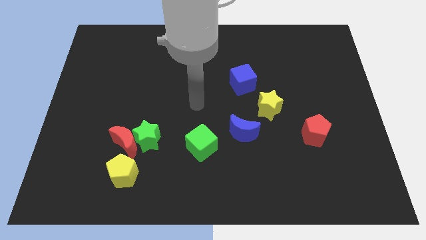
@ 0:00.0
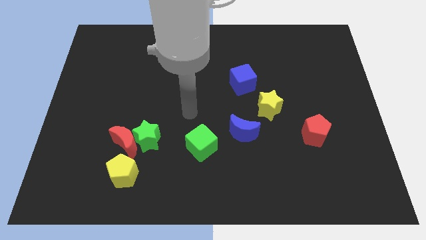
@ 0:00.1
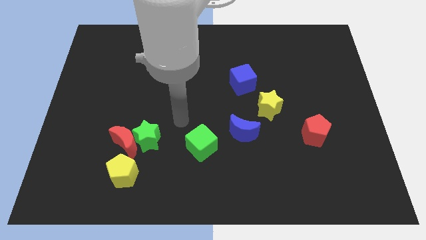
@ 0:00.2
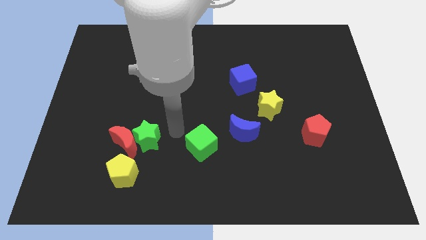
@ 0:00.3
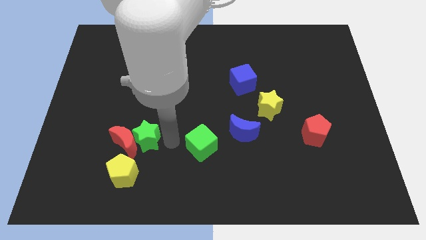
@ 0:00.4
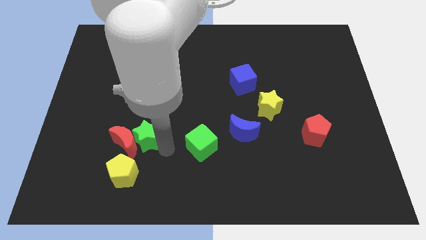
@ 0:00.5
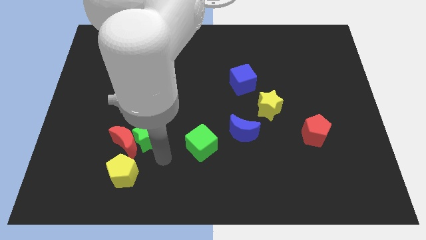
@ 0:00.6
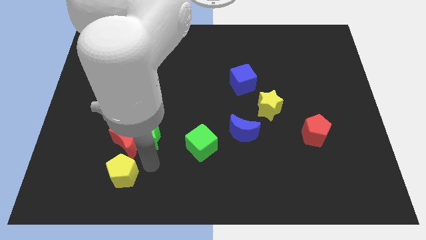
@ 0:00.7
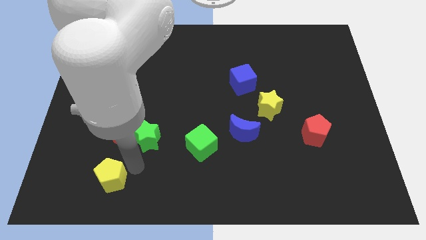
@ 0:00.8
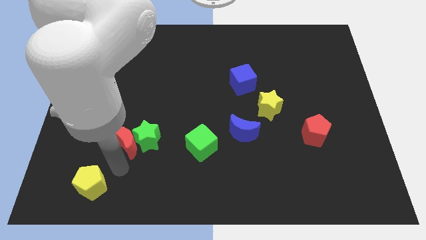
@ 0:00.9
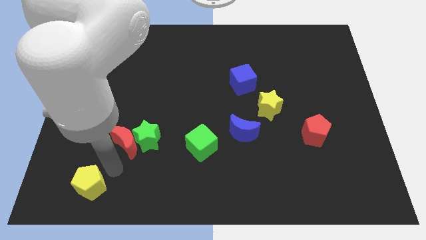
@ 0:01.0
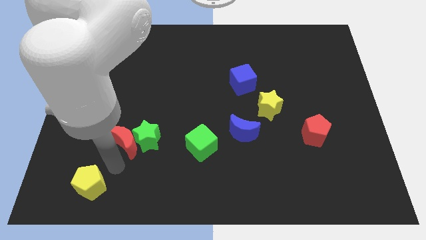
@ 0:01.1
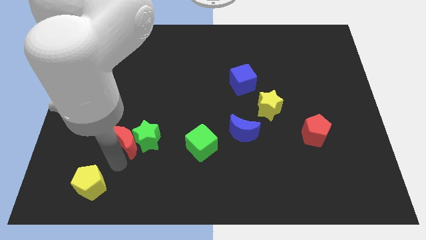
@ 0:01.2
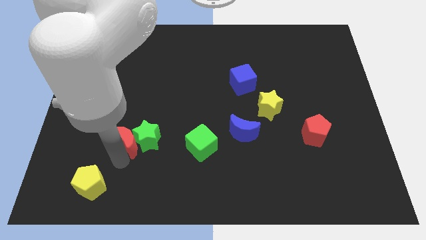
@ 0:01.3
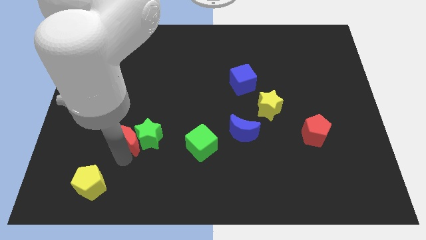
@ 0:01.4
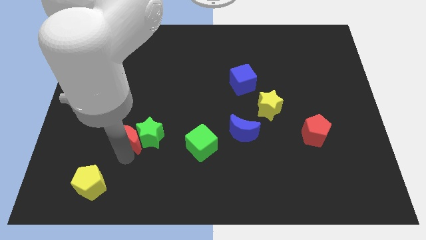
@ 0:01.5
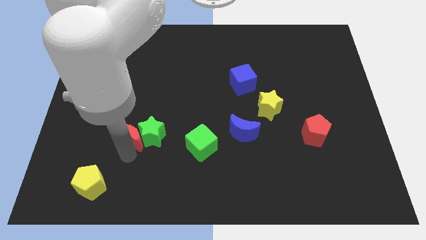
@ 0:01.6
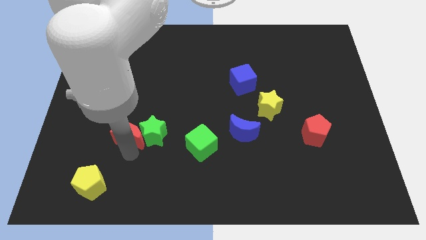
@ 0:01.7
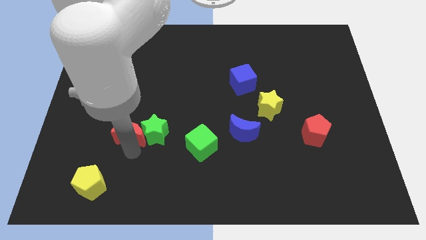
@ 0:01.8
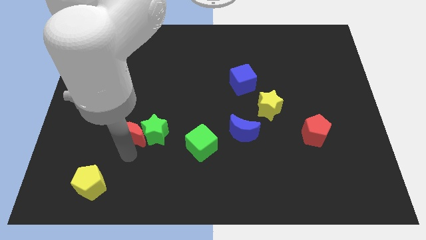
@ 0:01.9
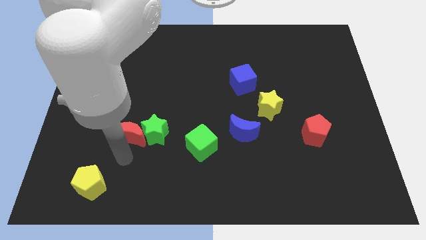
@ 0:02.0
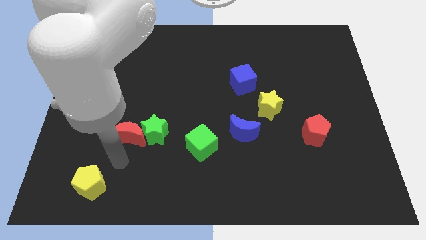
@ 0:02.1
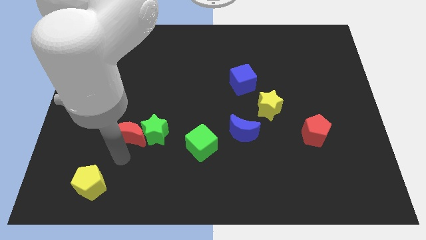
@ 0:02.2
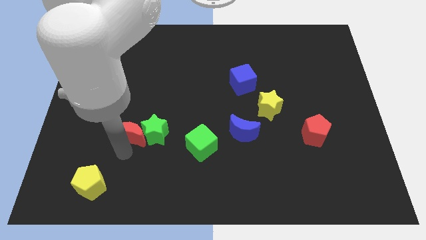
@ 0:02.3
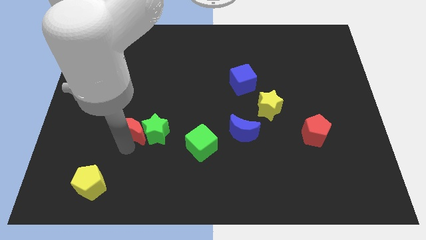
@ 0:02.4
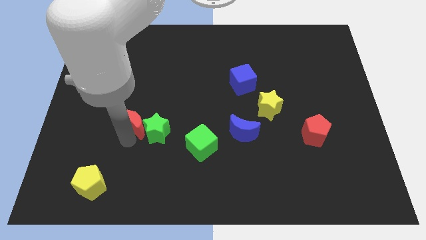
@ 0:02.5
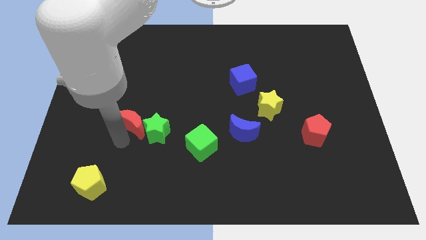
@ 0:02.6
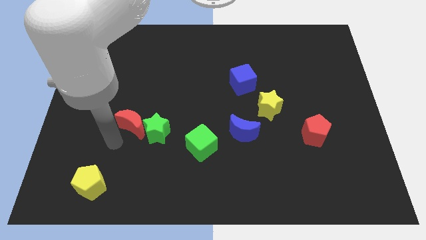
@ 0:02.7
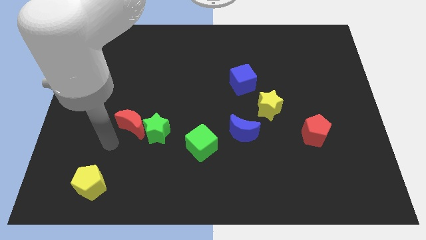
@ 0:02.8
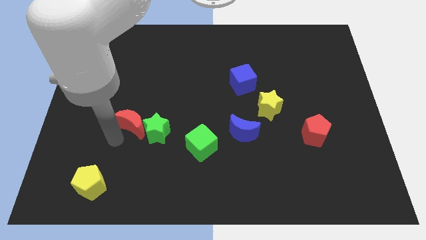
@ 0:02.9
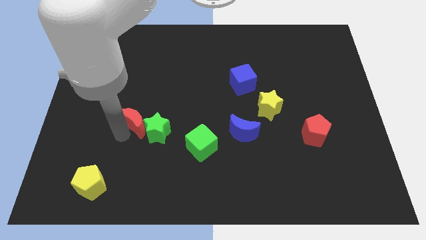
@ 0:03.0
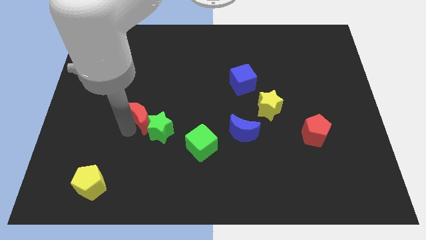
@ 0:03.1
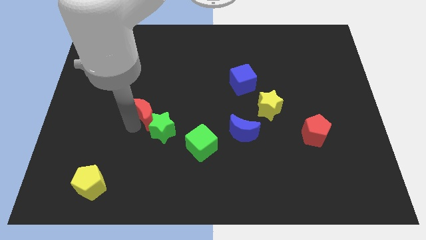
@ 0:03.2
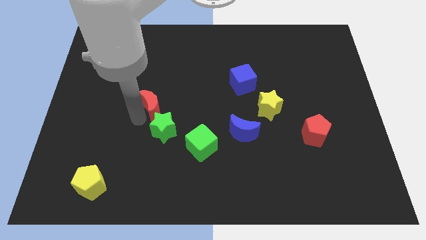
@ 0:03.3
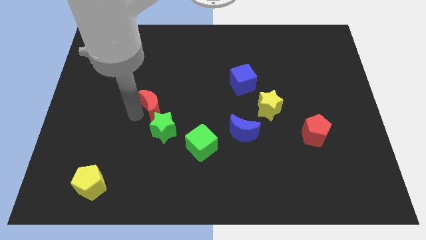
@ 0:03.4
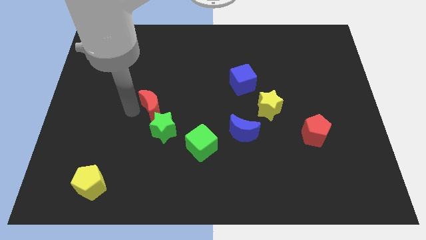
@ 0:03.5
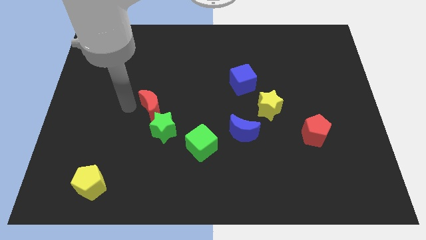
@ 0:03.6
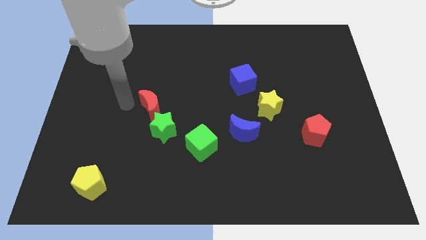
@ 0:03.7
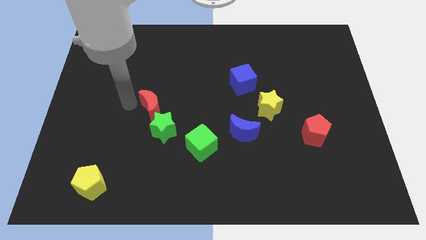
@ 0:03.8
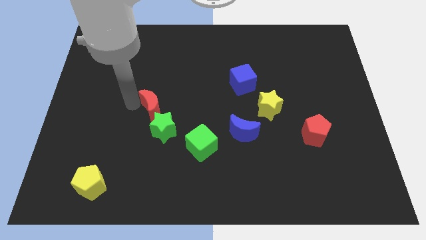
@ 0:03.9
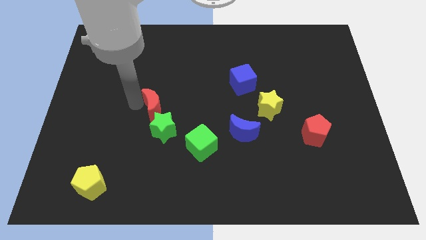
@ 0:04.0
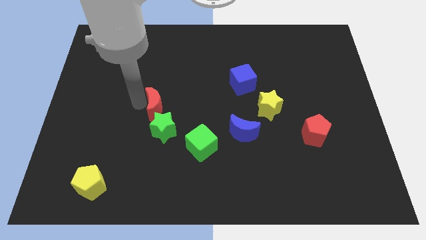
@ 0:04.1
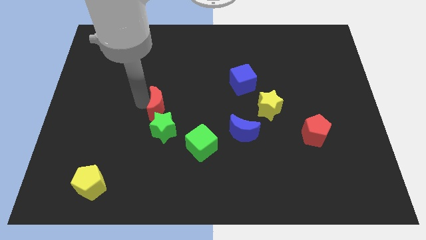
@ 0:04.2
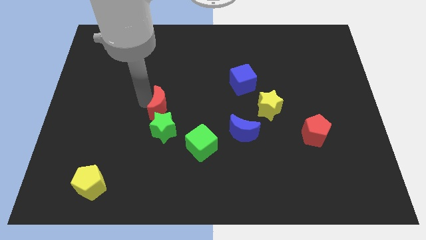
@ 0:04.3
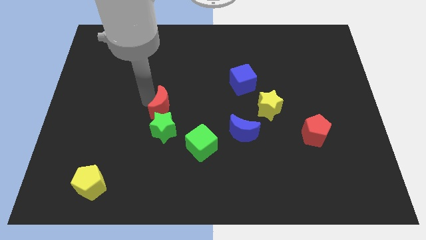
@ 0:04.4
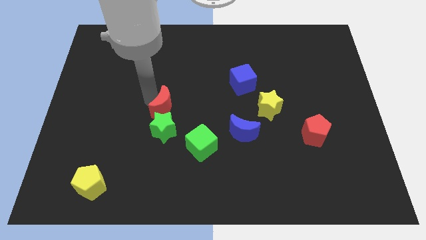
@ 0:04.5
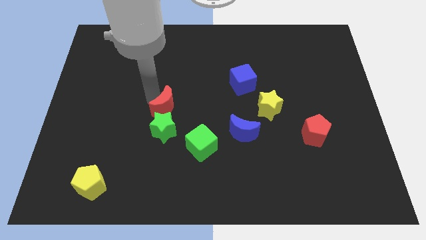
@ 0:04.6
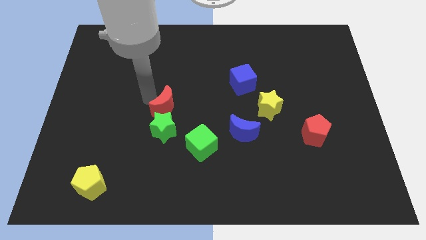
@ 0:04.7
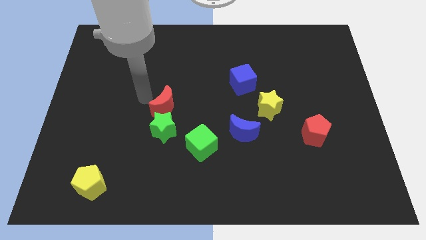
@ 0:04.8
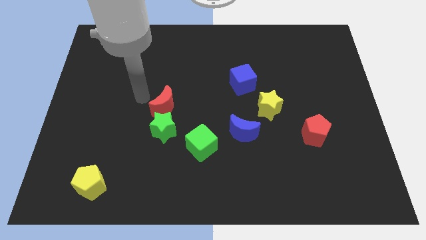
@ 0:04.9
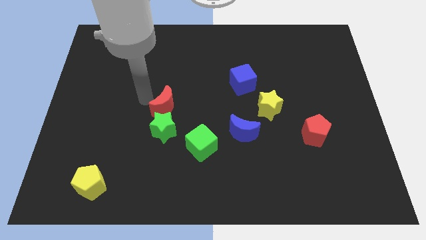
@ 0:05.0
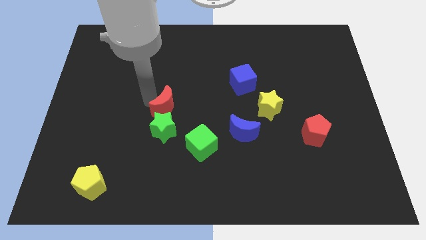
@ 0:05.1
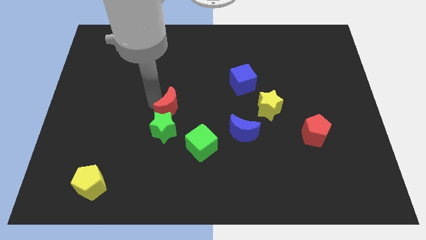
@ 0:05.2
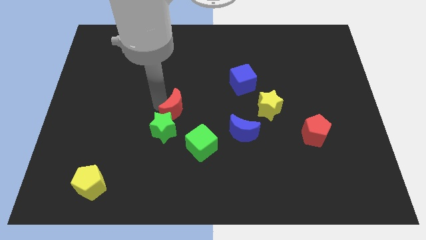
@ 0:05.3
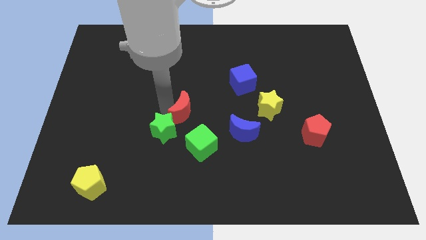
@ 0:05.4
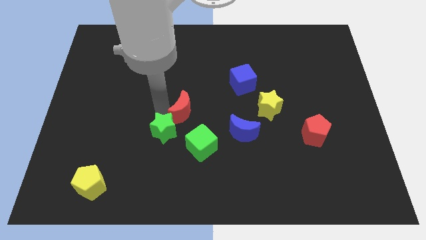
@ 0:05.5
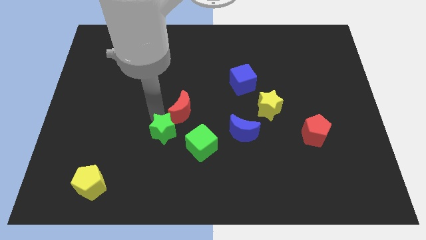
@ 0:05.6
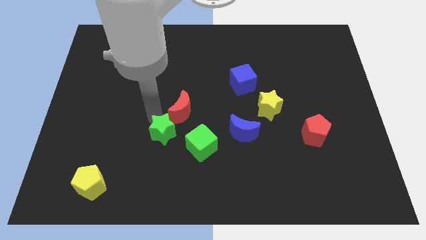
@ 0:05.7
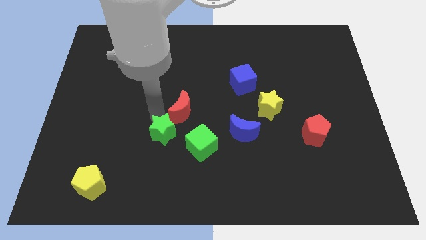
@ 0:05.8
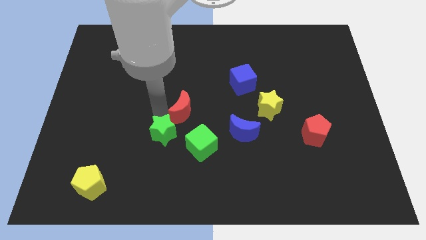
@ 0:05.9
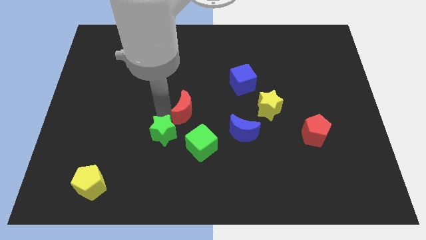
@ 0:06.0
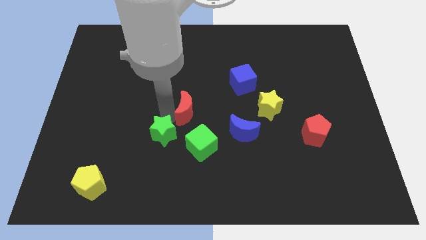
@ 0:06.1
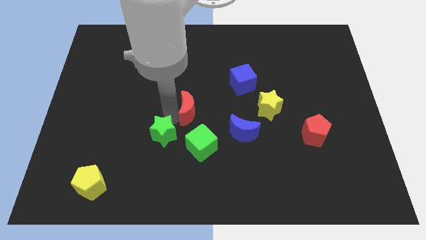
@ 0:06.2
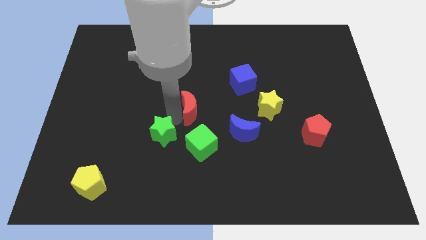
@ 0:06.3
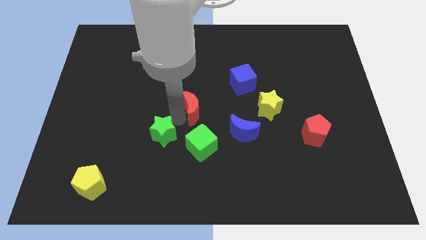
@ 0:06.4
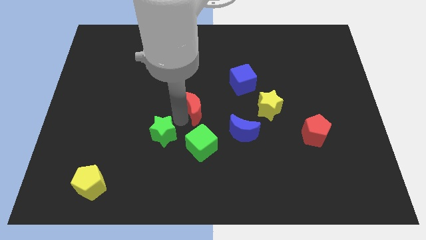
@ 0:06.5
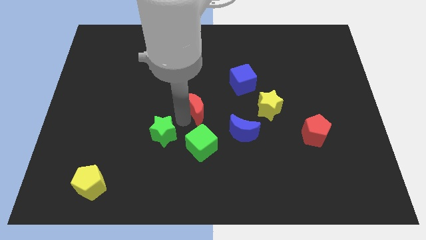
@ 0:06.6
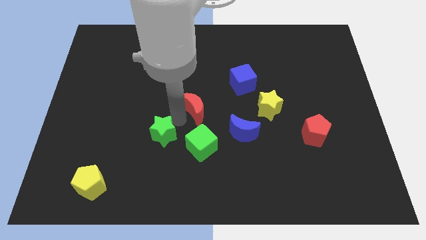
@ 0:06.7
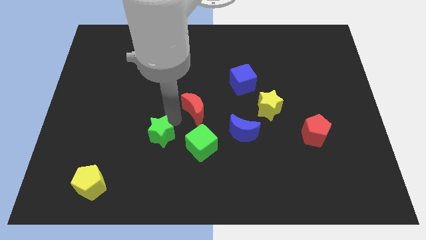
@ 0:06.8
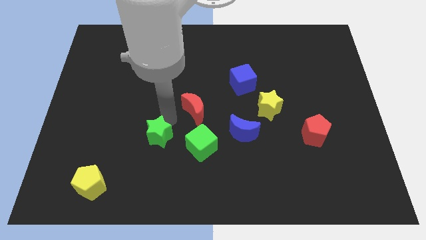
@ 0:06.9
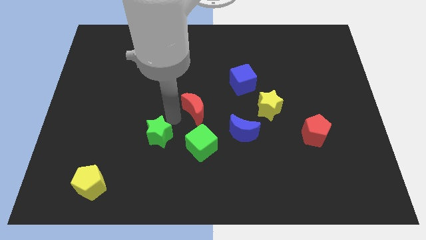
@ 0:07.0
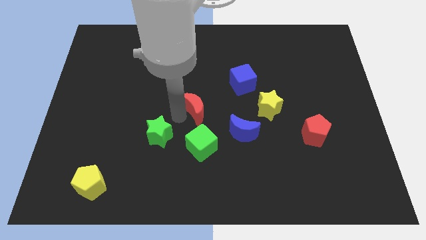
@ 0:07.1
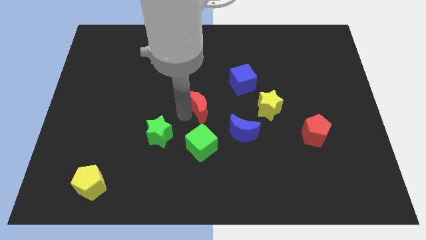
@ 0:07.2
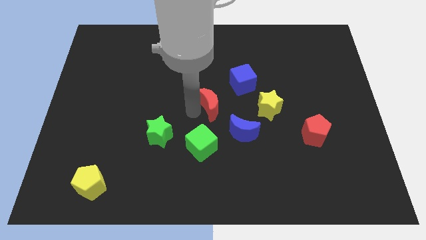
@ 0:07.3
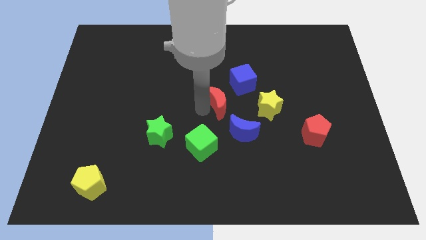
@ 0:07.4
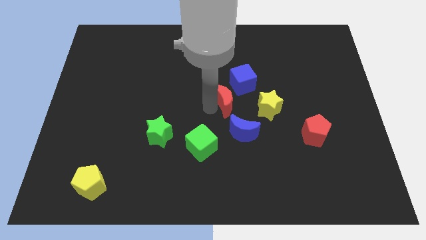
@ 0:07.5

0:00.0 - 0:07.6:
put the red moon above the blue moon
